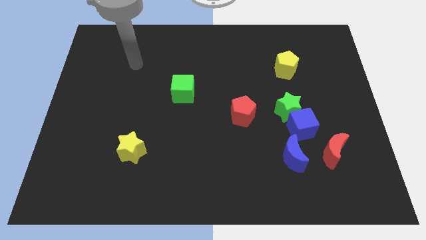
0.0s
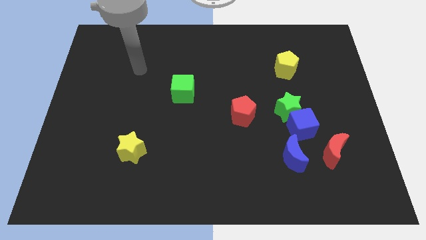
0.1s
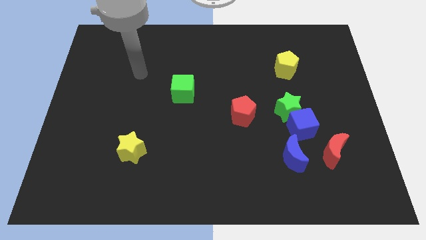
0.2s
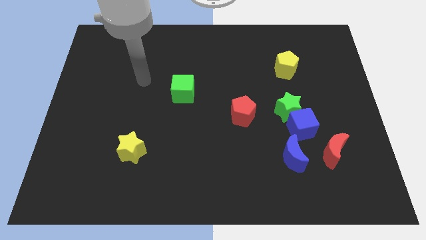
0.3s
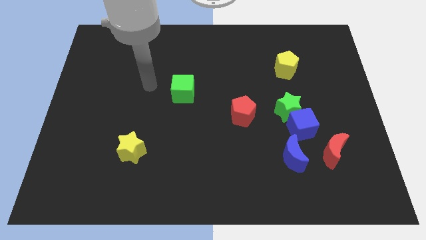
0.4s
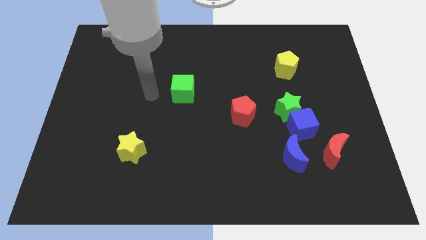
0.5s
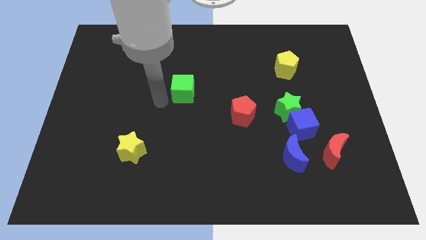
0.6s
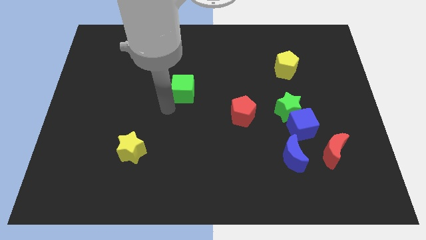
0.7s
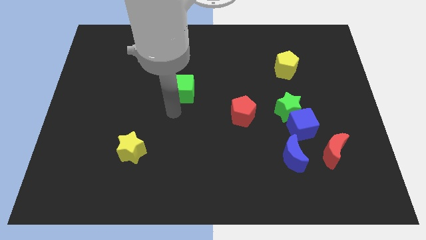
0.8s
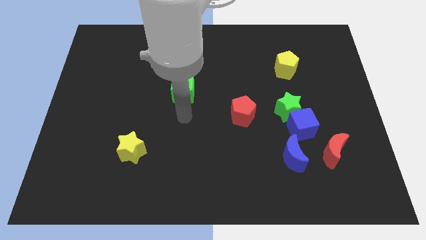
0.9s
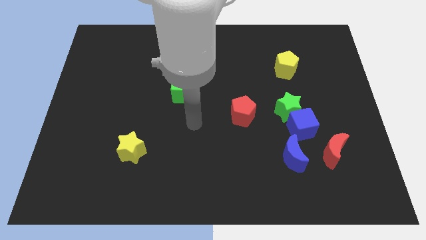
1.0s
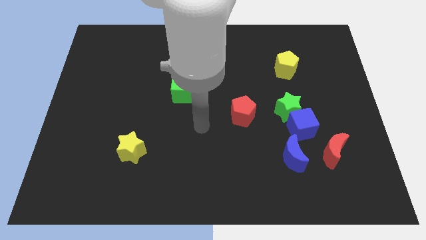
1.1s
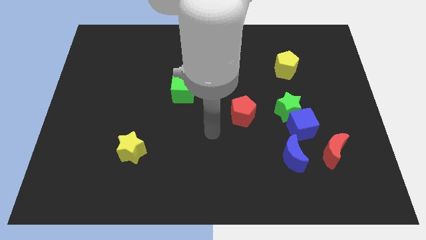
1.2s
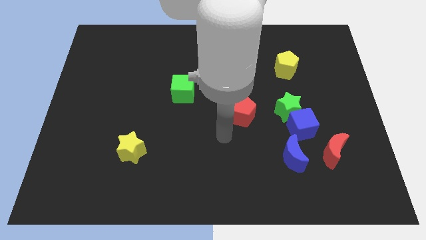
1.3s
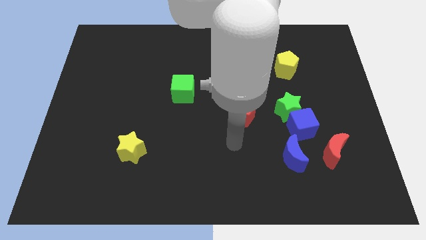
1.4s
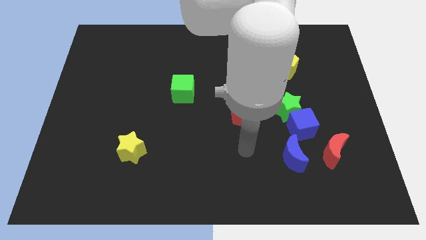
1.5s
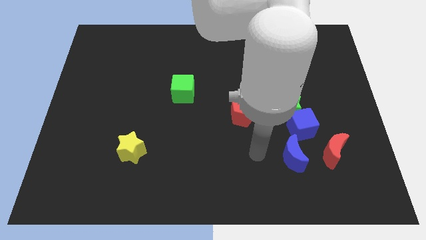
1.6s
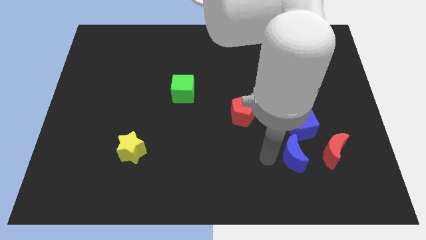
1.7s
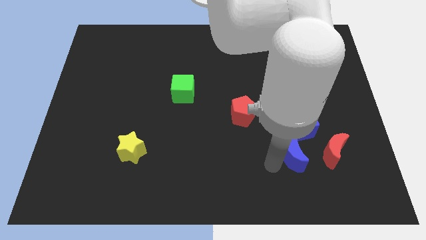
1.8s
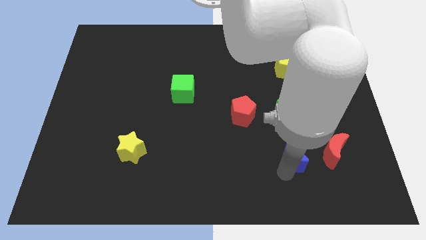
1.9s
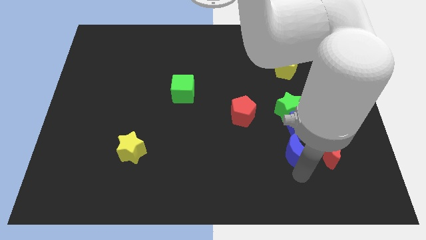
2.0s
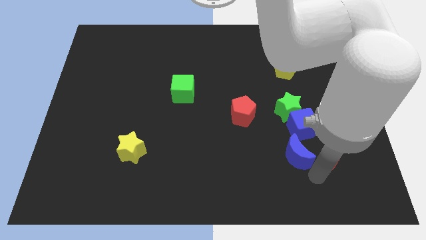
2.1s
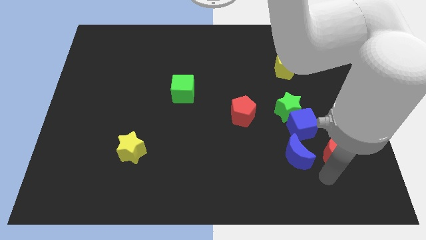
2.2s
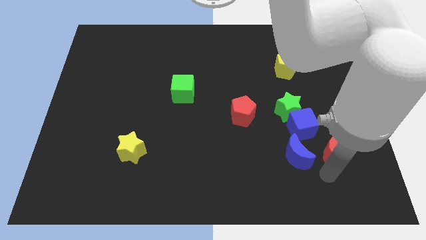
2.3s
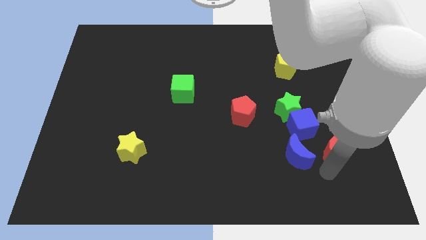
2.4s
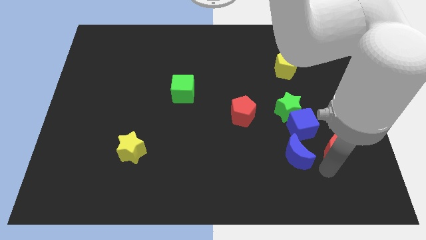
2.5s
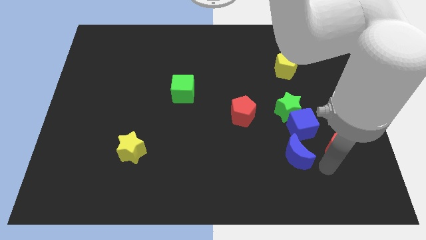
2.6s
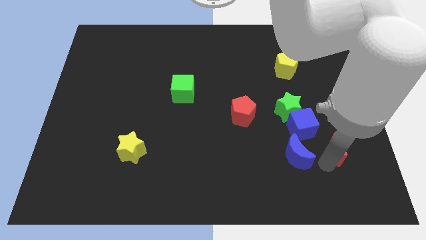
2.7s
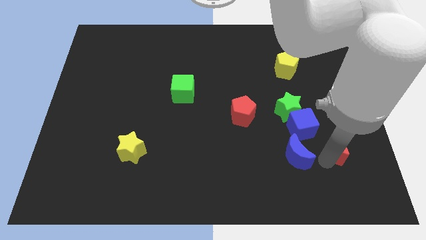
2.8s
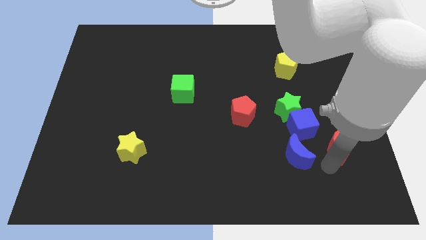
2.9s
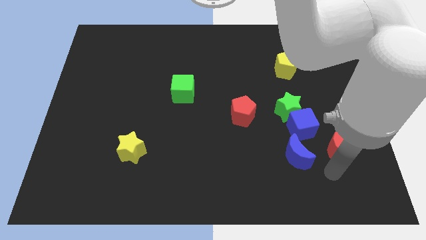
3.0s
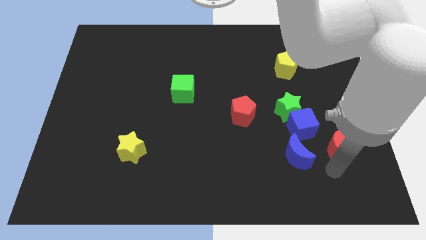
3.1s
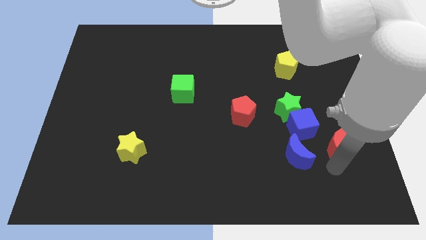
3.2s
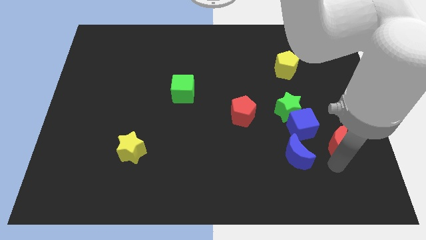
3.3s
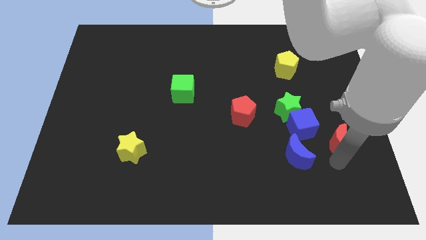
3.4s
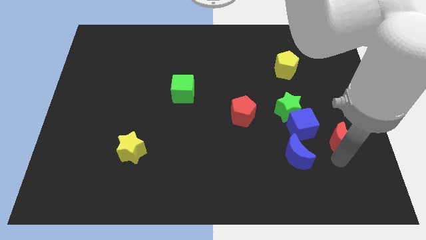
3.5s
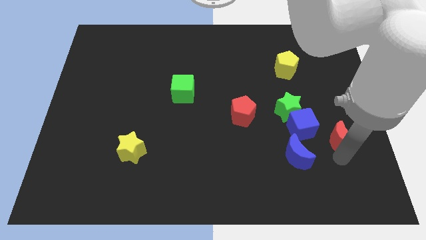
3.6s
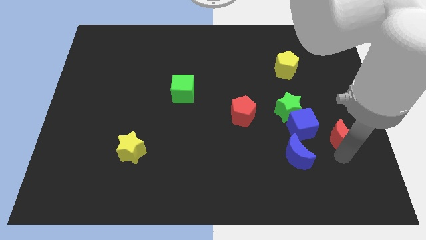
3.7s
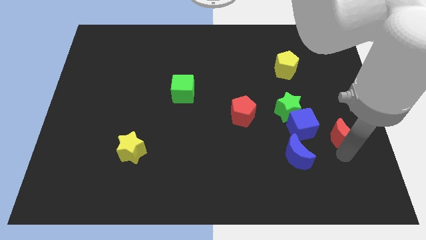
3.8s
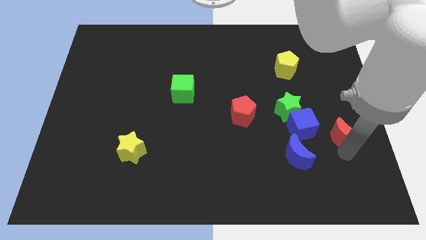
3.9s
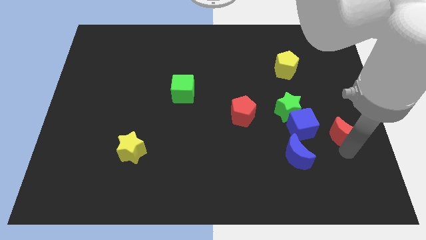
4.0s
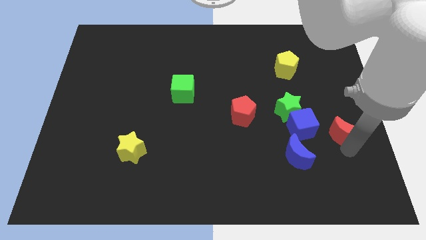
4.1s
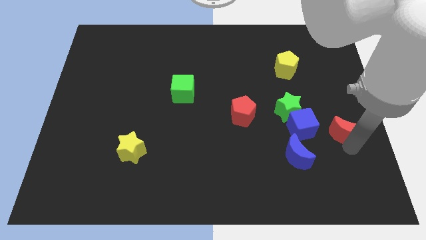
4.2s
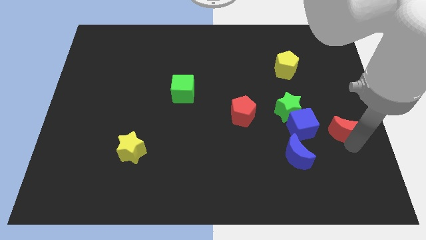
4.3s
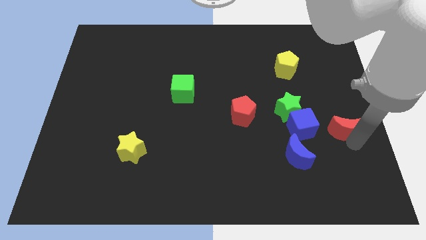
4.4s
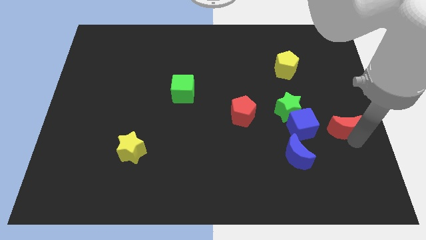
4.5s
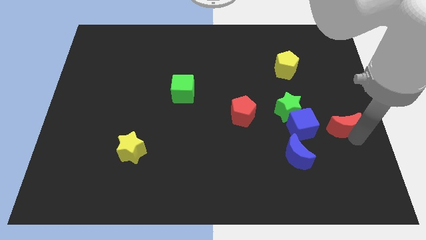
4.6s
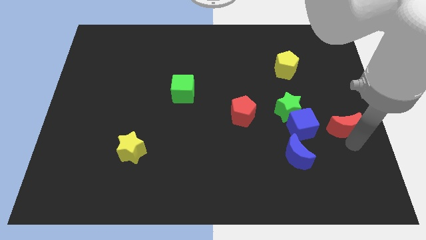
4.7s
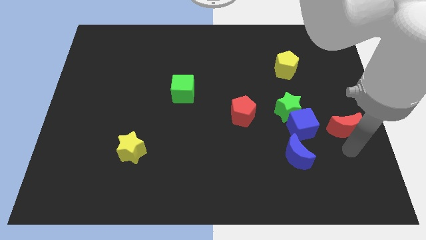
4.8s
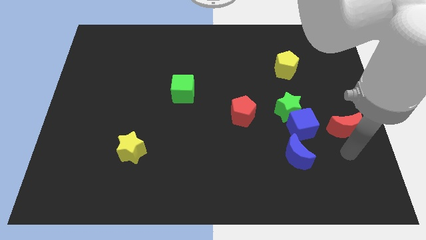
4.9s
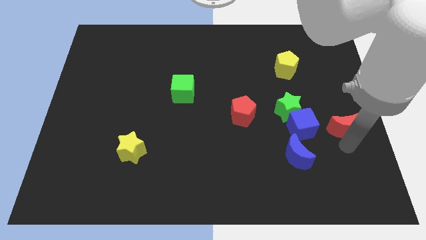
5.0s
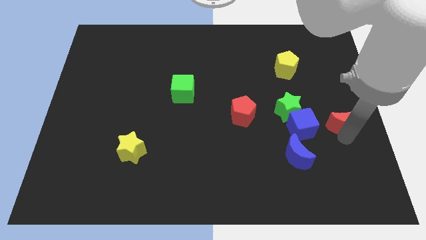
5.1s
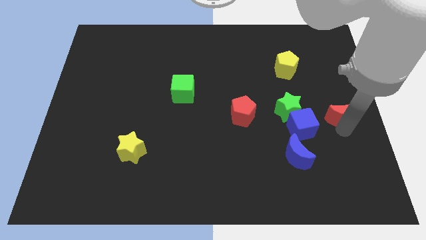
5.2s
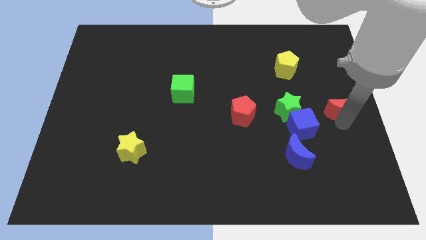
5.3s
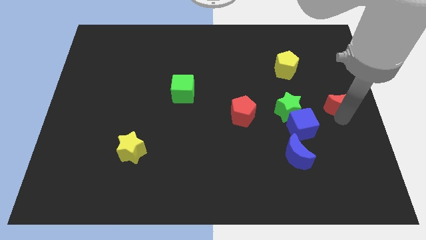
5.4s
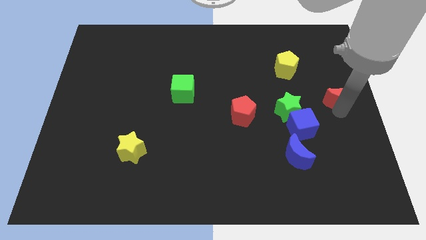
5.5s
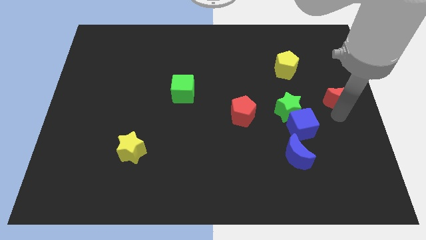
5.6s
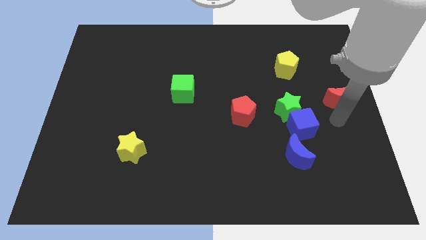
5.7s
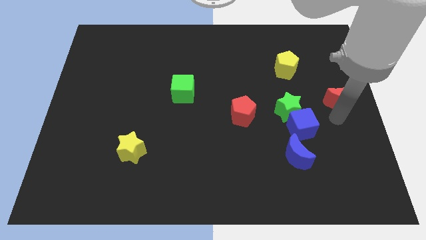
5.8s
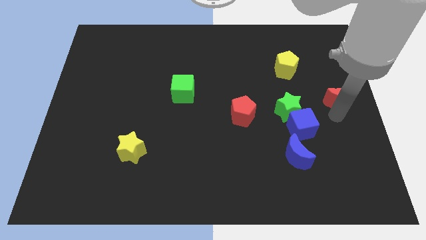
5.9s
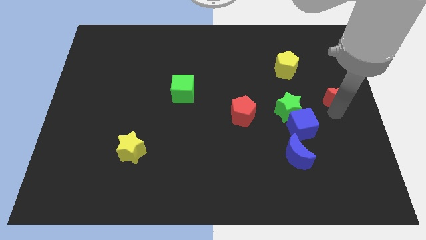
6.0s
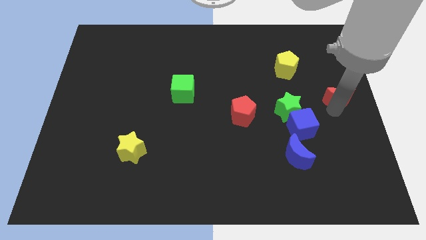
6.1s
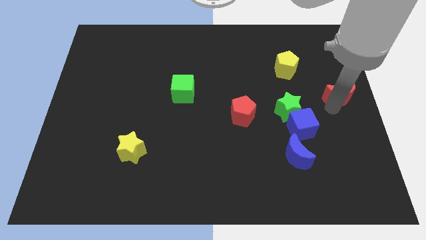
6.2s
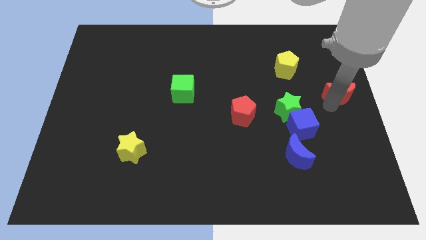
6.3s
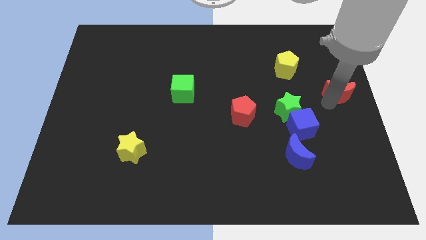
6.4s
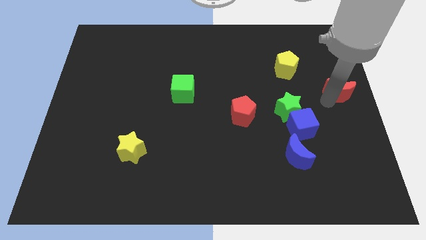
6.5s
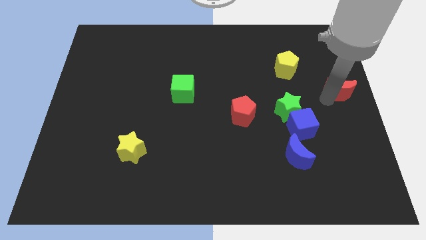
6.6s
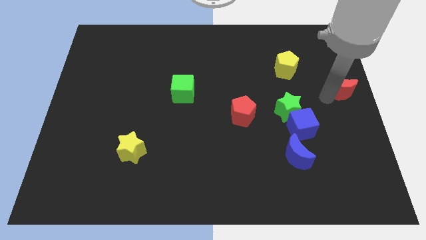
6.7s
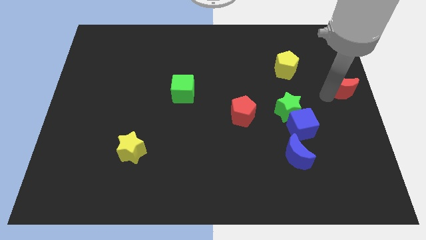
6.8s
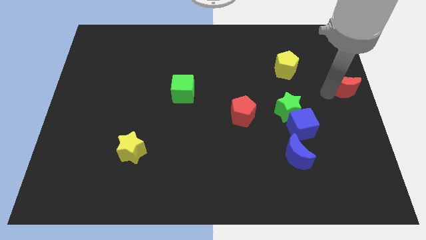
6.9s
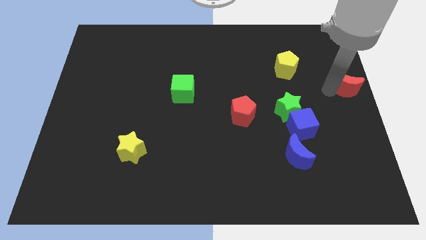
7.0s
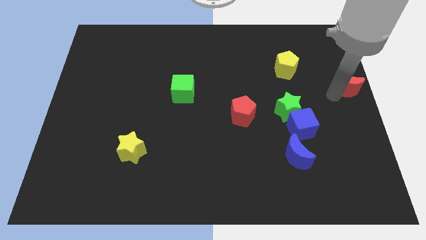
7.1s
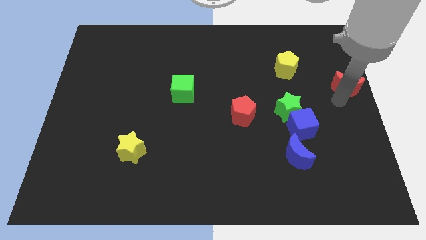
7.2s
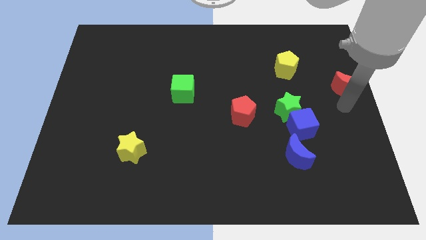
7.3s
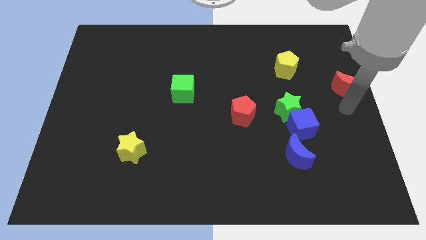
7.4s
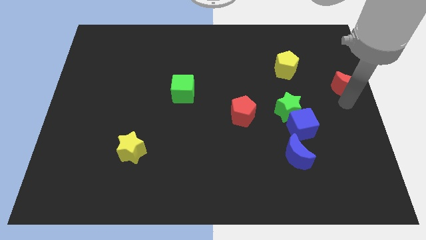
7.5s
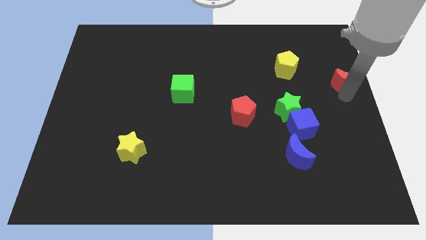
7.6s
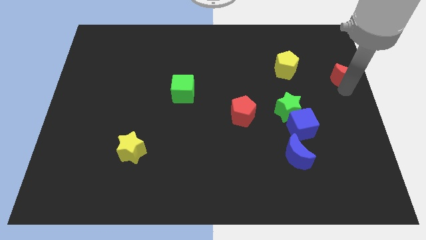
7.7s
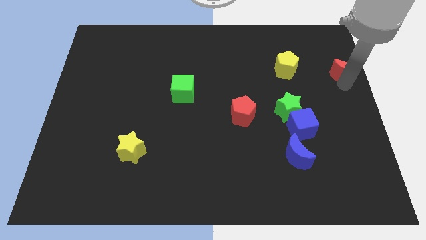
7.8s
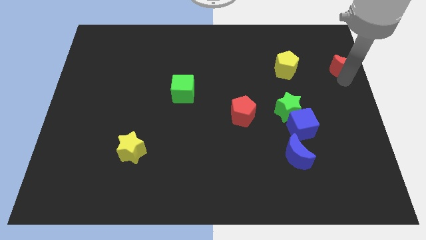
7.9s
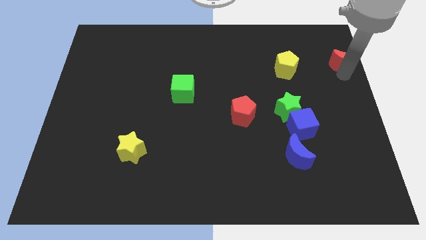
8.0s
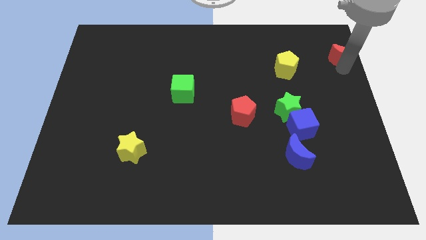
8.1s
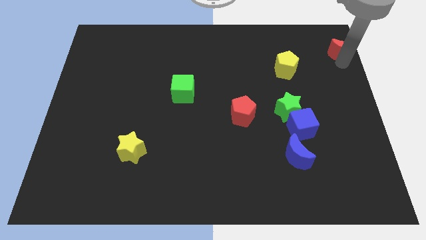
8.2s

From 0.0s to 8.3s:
put the red moon to the top right
